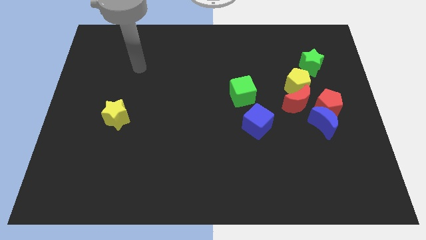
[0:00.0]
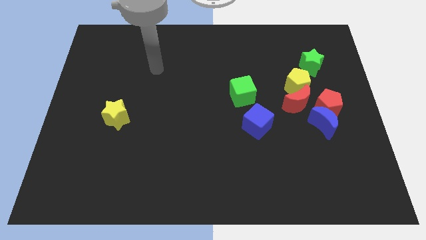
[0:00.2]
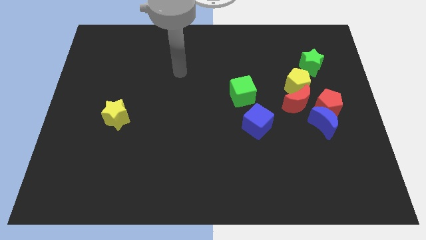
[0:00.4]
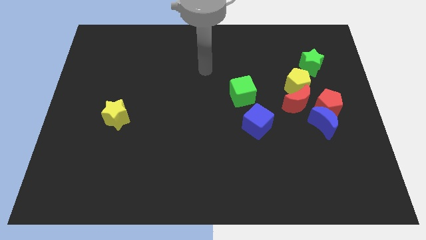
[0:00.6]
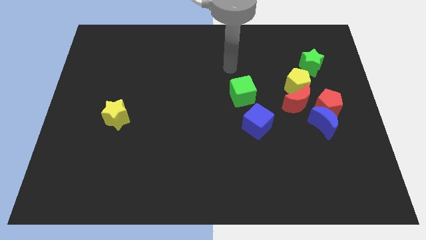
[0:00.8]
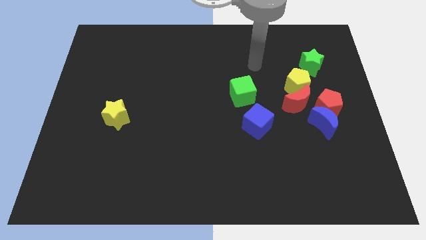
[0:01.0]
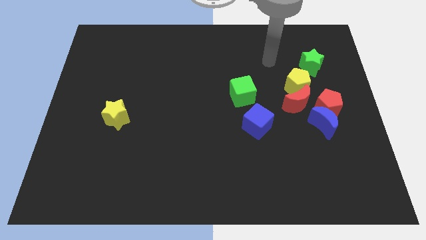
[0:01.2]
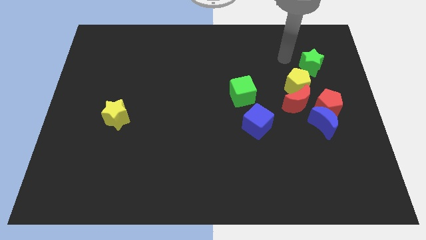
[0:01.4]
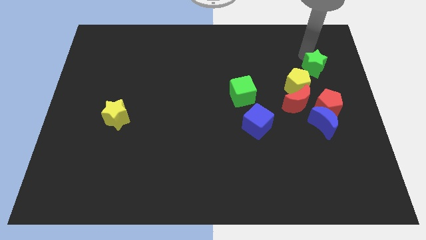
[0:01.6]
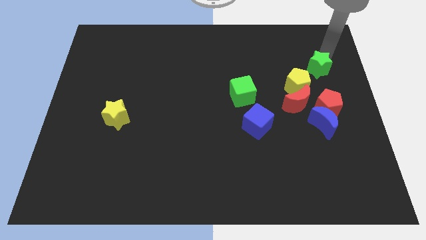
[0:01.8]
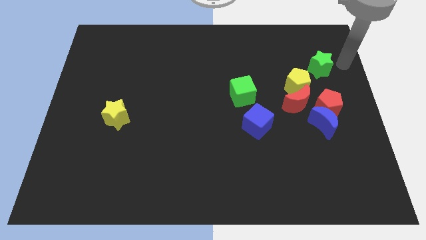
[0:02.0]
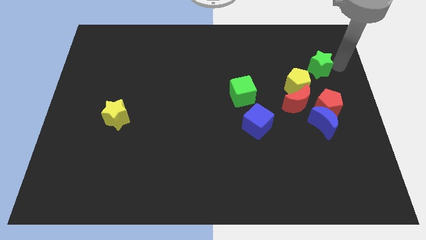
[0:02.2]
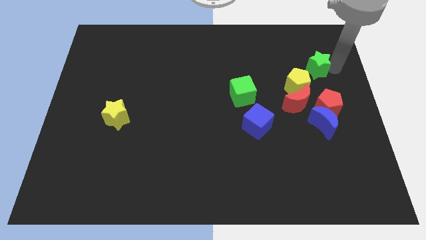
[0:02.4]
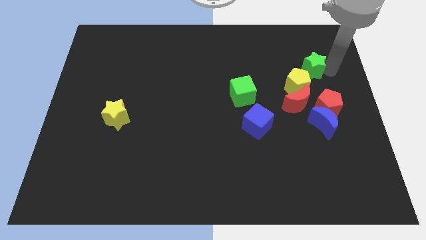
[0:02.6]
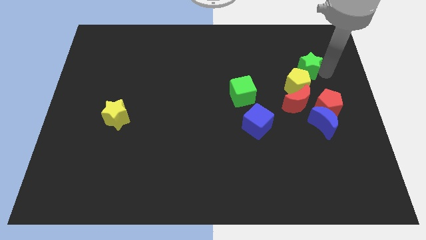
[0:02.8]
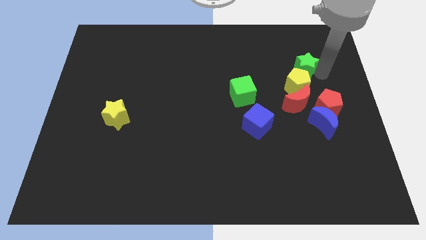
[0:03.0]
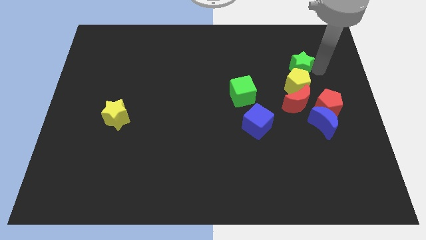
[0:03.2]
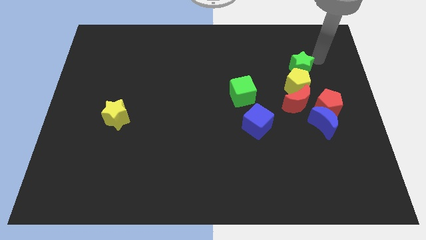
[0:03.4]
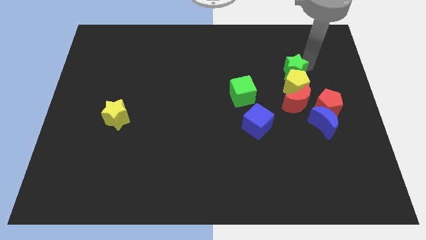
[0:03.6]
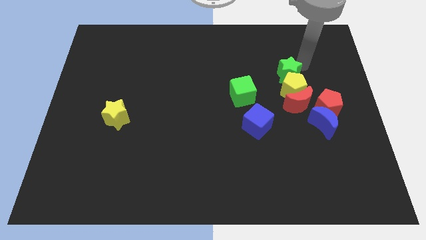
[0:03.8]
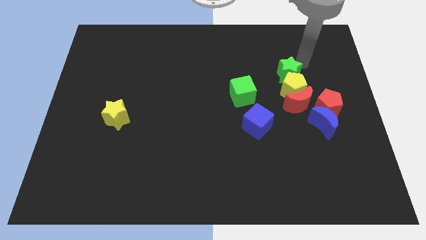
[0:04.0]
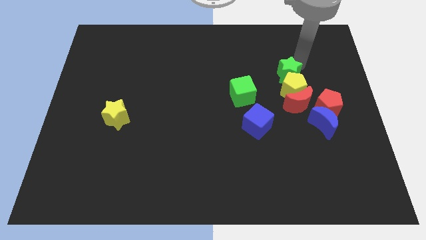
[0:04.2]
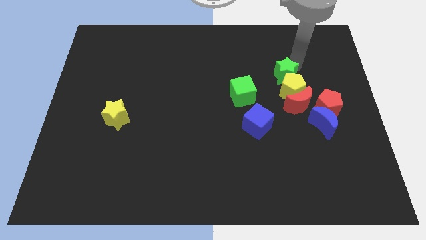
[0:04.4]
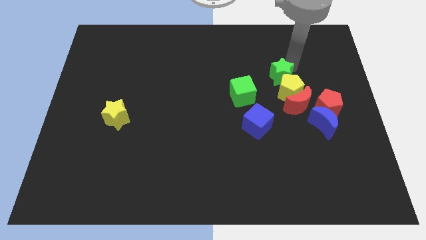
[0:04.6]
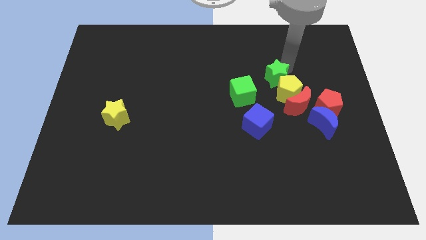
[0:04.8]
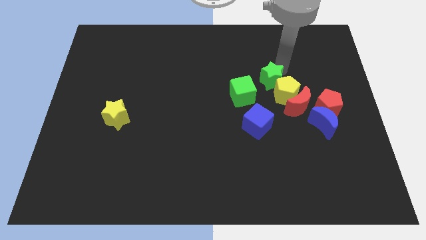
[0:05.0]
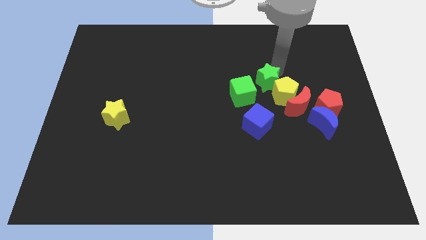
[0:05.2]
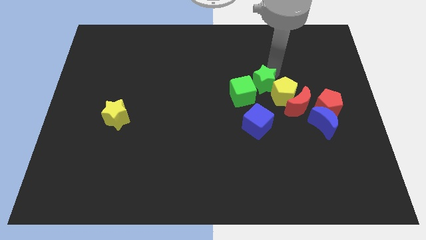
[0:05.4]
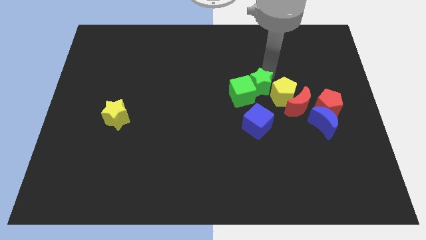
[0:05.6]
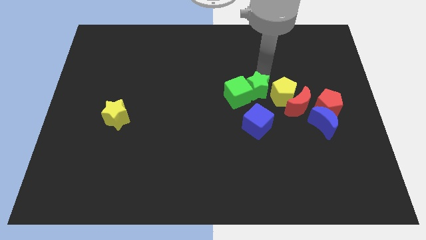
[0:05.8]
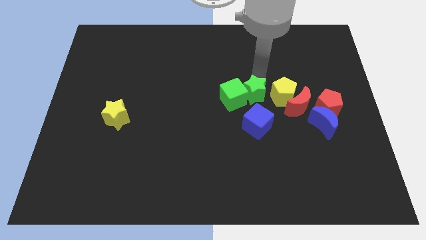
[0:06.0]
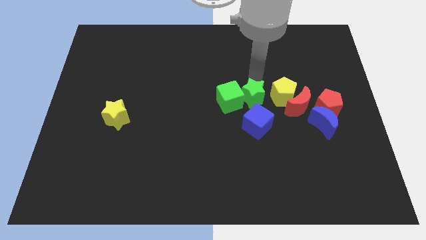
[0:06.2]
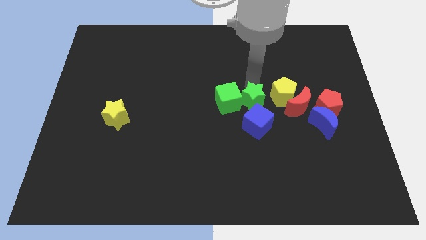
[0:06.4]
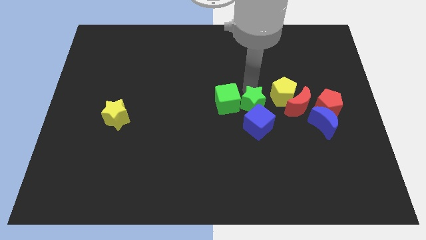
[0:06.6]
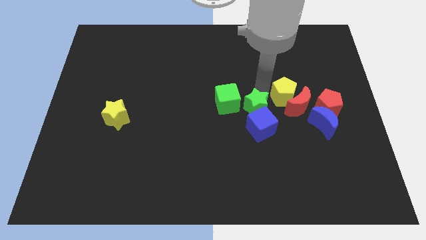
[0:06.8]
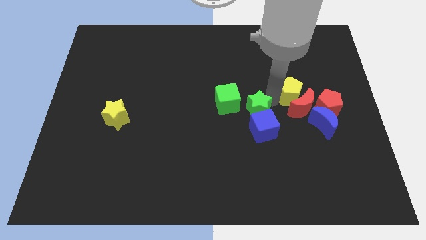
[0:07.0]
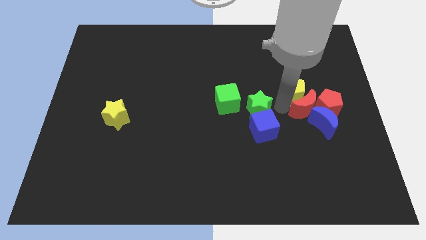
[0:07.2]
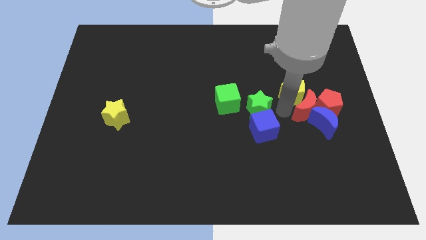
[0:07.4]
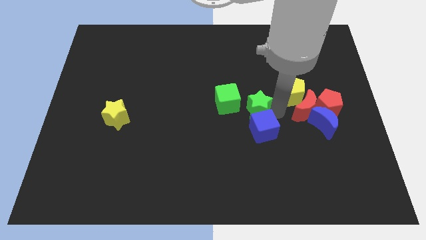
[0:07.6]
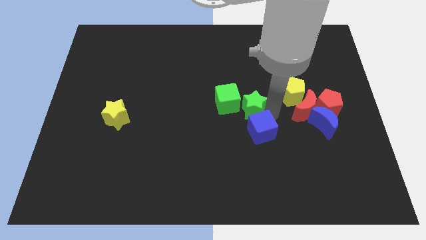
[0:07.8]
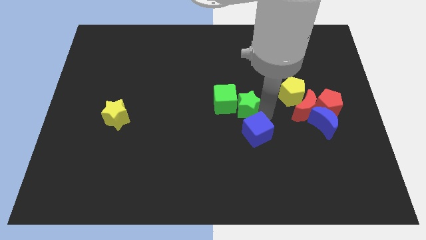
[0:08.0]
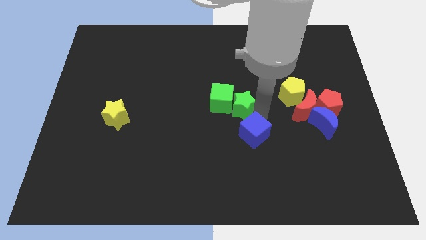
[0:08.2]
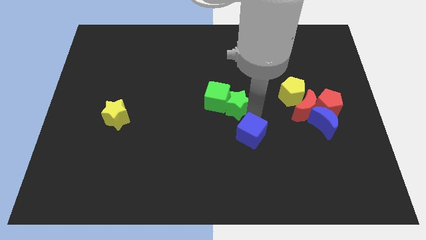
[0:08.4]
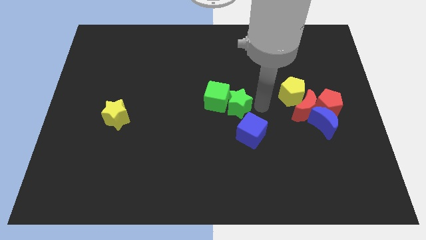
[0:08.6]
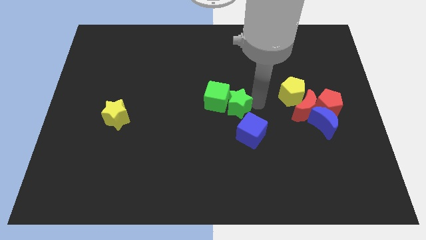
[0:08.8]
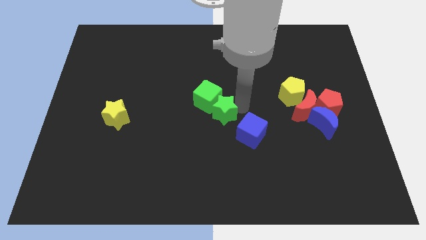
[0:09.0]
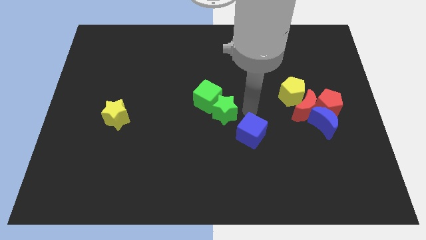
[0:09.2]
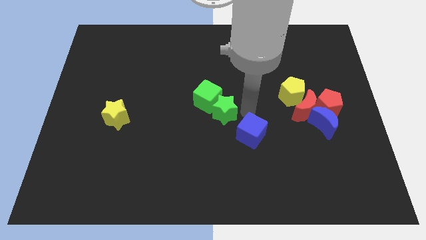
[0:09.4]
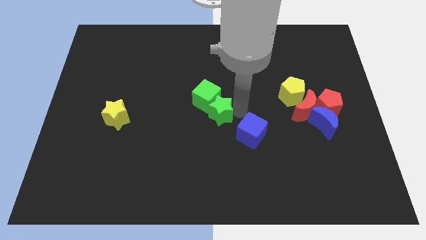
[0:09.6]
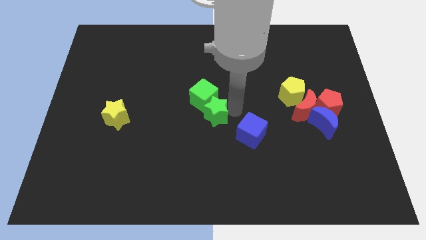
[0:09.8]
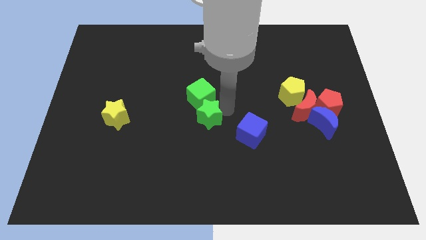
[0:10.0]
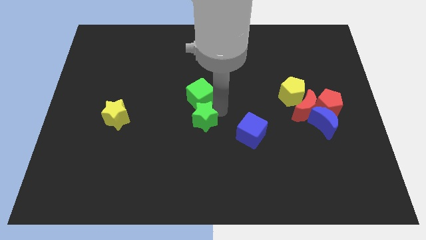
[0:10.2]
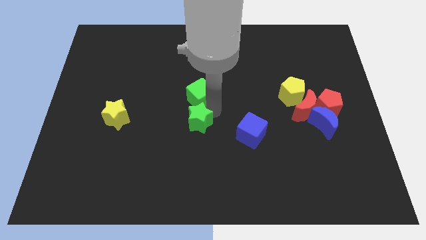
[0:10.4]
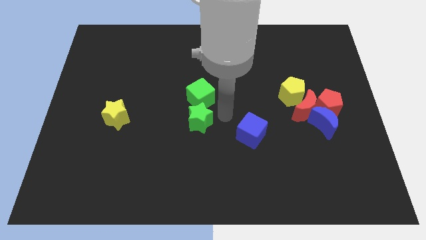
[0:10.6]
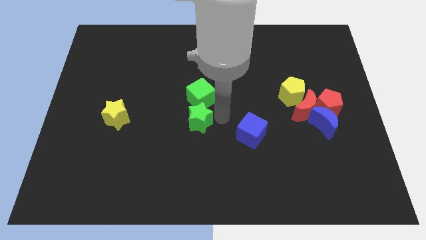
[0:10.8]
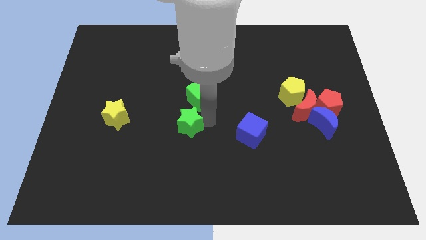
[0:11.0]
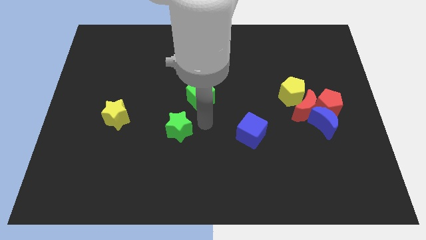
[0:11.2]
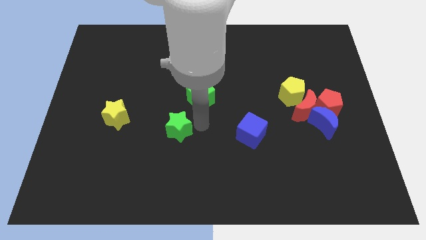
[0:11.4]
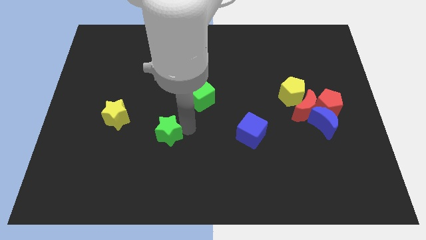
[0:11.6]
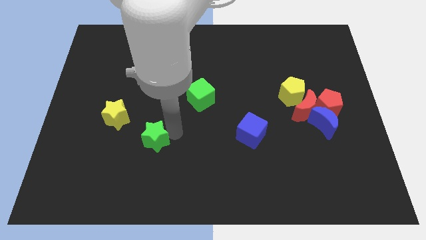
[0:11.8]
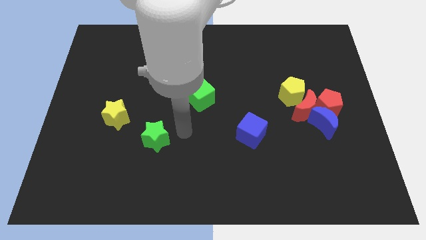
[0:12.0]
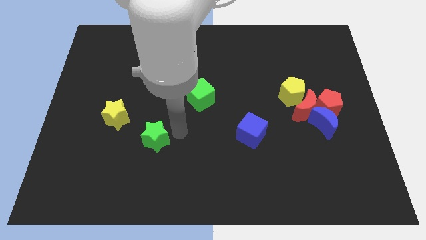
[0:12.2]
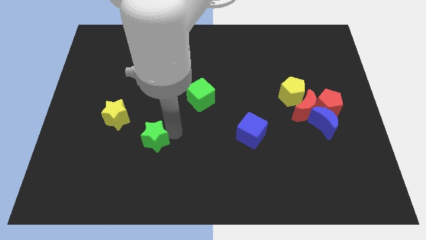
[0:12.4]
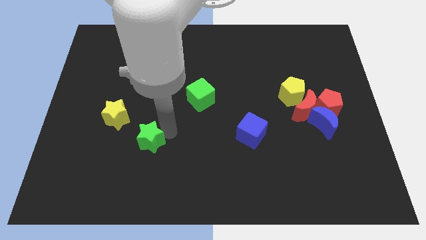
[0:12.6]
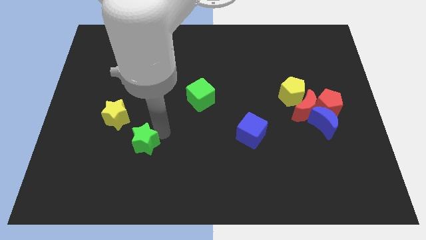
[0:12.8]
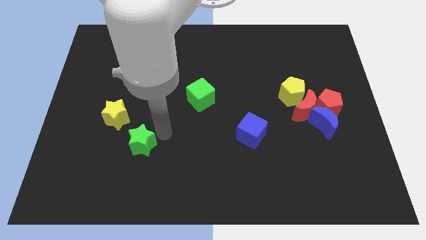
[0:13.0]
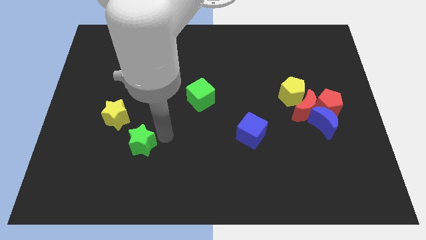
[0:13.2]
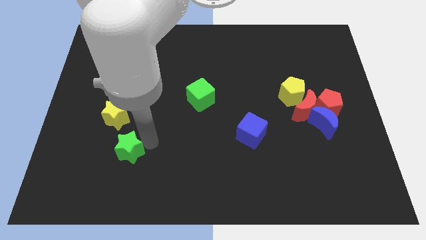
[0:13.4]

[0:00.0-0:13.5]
put the green star to the bottom of the yellow star

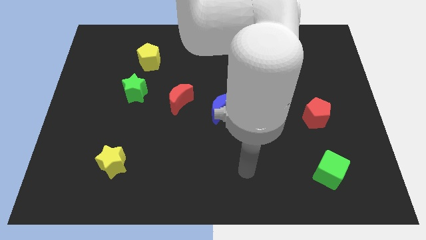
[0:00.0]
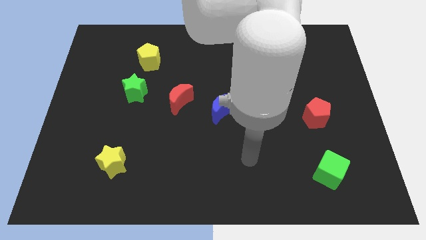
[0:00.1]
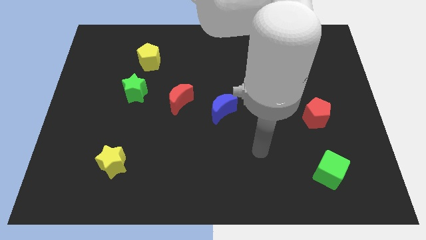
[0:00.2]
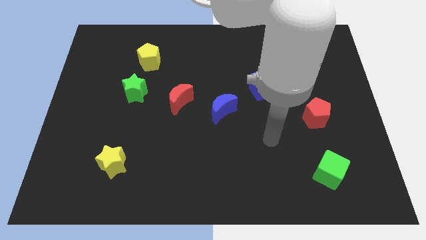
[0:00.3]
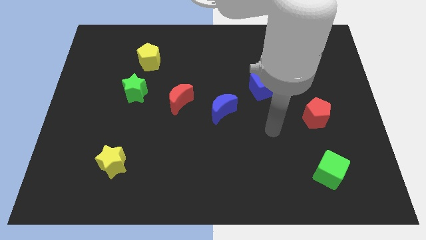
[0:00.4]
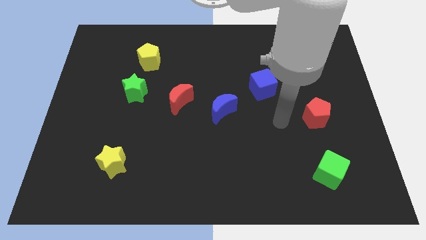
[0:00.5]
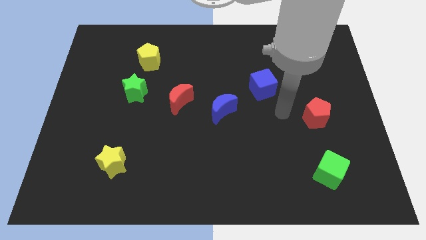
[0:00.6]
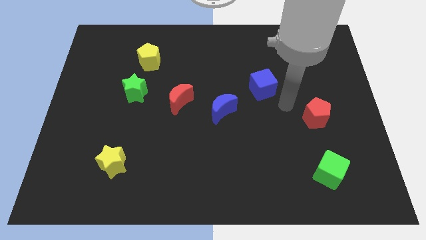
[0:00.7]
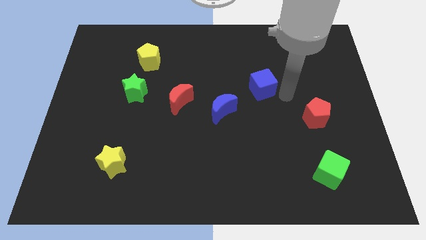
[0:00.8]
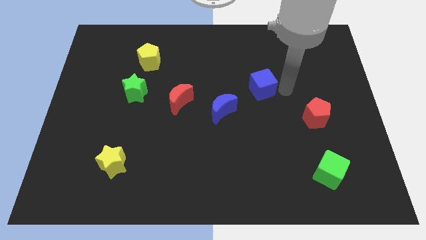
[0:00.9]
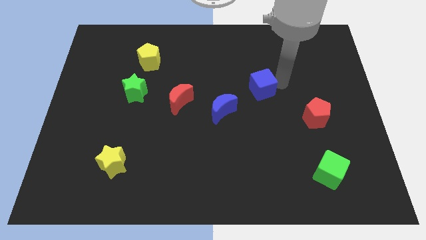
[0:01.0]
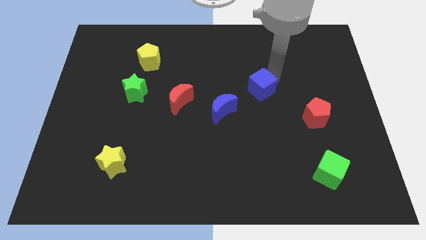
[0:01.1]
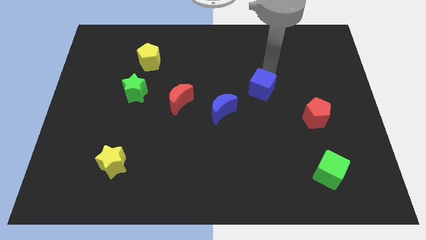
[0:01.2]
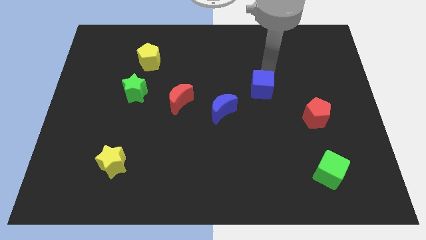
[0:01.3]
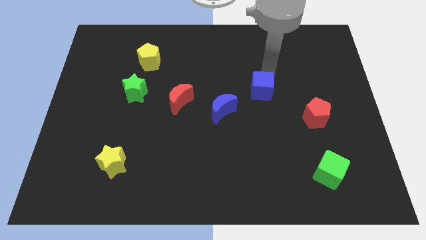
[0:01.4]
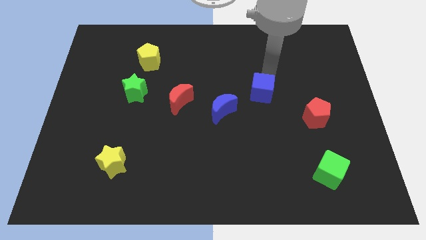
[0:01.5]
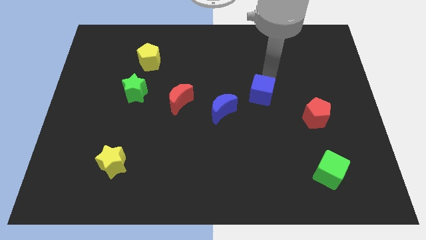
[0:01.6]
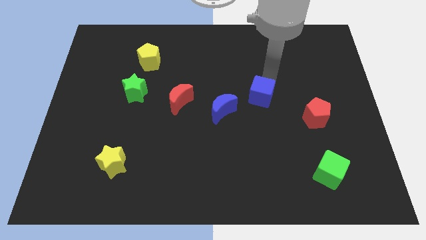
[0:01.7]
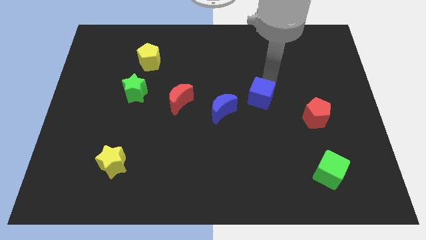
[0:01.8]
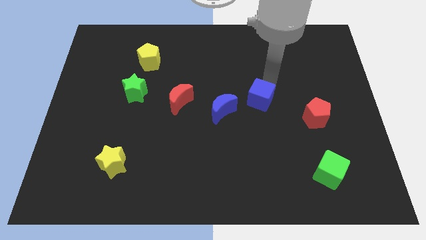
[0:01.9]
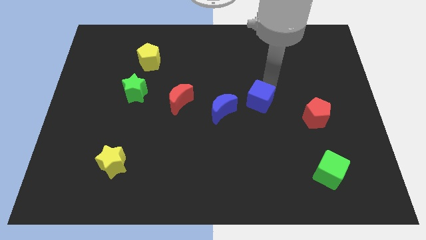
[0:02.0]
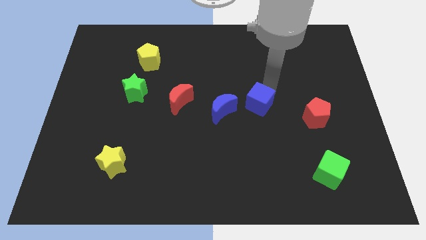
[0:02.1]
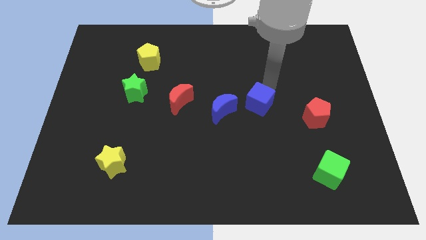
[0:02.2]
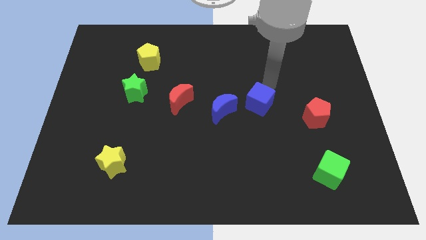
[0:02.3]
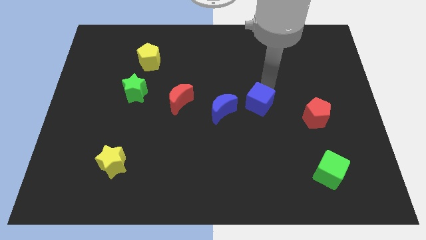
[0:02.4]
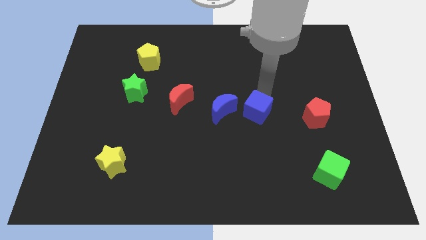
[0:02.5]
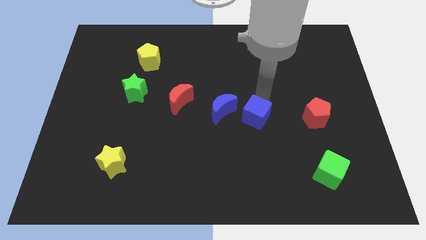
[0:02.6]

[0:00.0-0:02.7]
slide the blue cube to the bottom right of the blue moon
